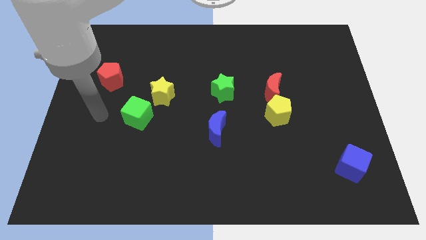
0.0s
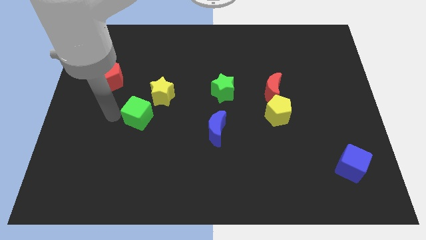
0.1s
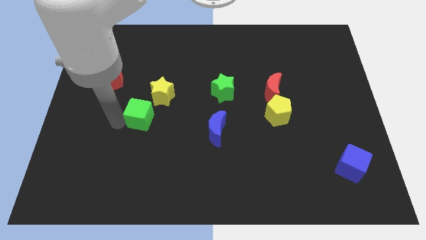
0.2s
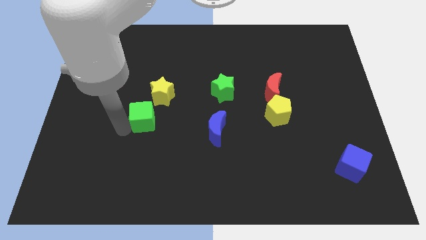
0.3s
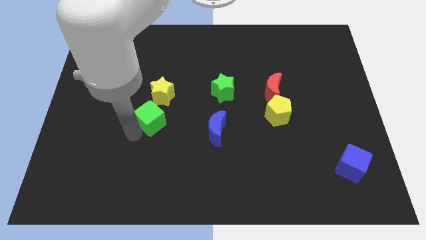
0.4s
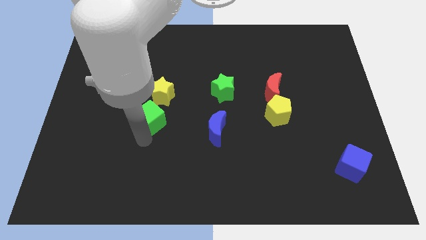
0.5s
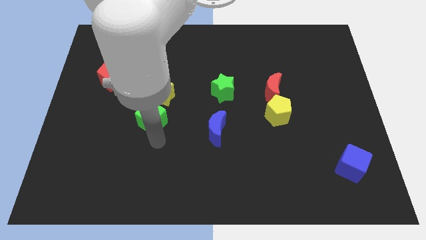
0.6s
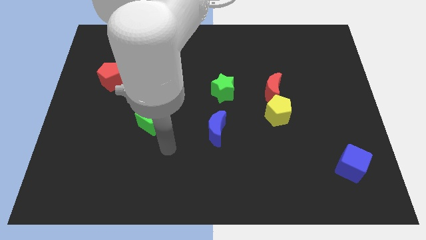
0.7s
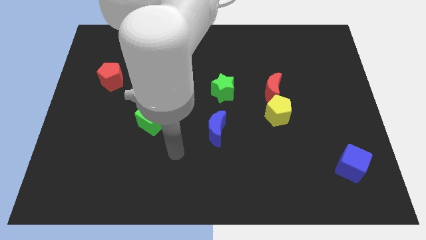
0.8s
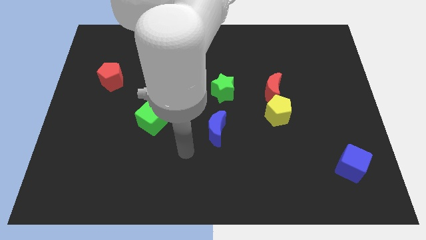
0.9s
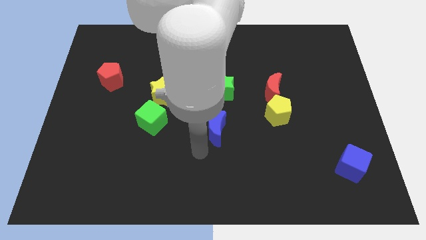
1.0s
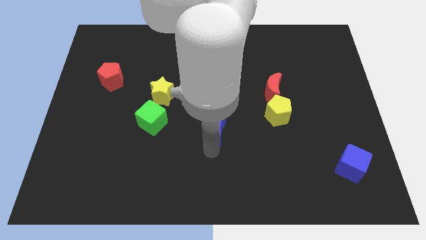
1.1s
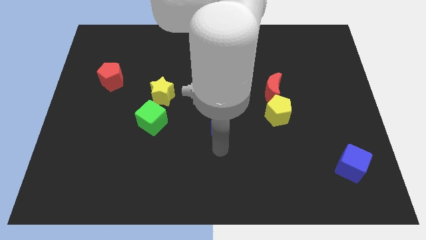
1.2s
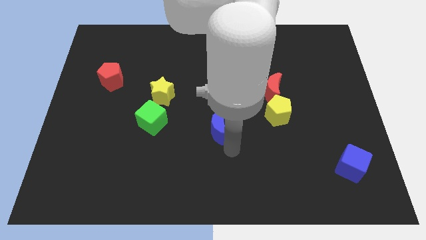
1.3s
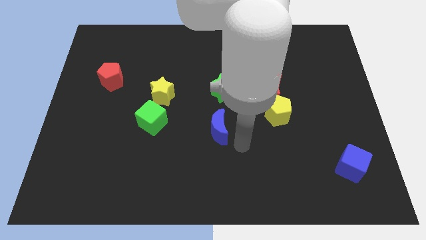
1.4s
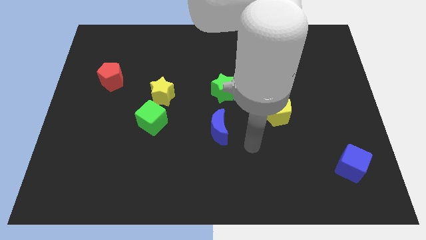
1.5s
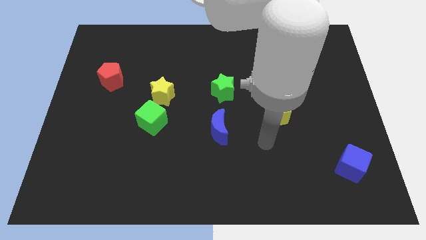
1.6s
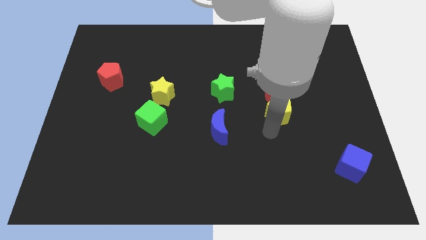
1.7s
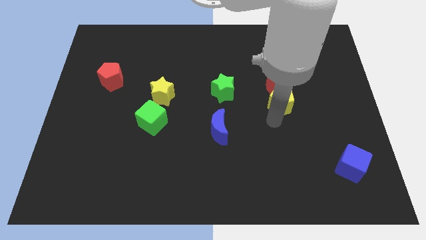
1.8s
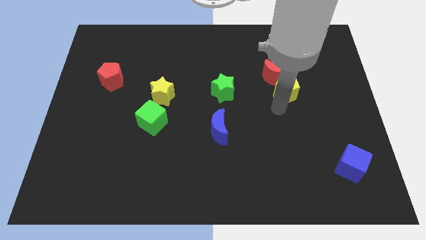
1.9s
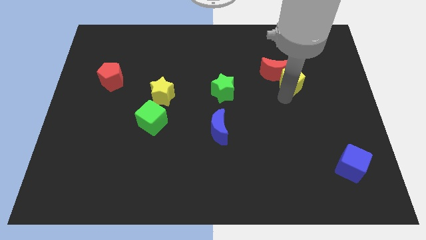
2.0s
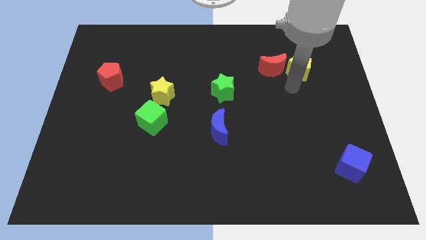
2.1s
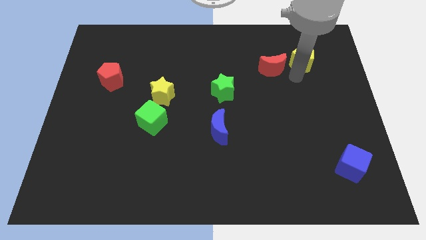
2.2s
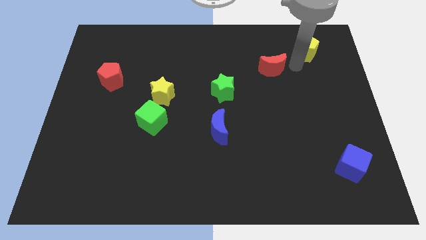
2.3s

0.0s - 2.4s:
move the red moon away from the yellow pentagon

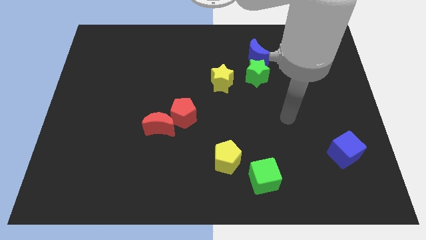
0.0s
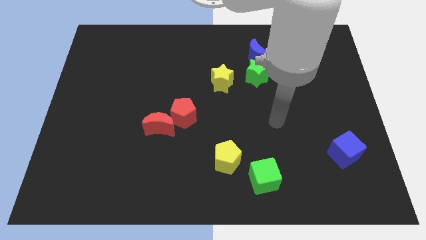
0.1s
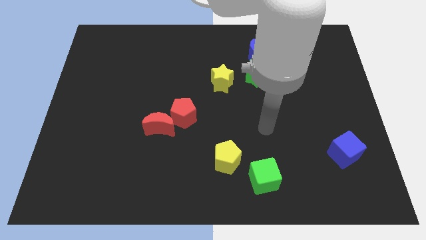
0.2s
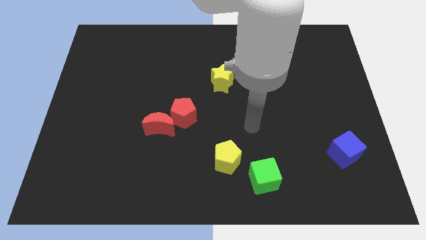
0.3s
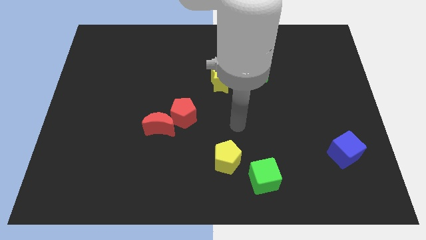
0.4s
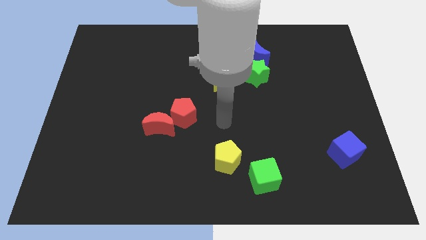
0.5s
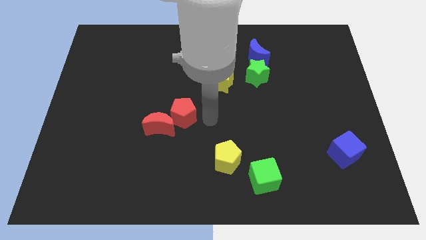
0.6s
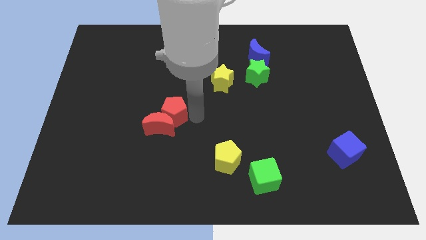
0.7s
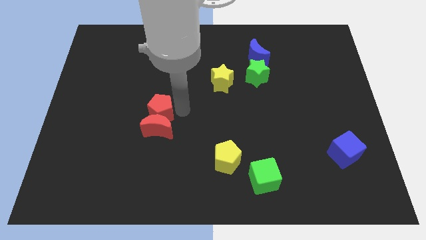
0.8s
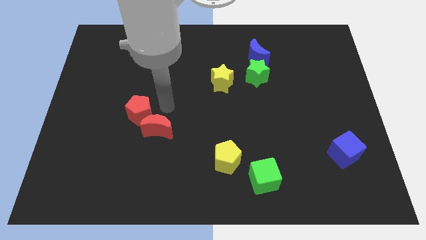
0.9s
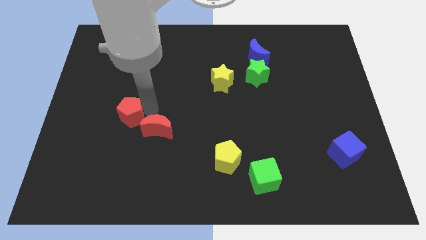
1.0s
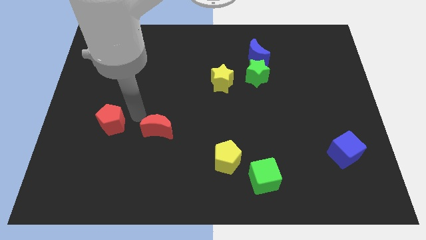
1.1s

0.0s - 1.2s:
move the red moon away from the red pentagon

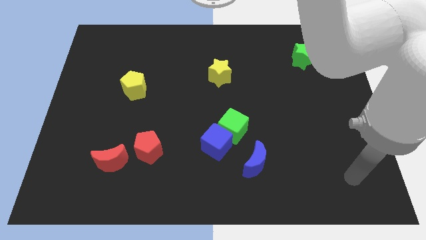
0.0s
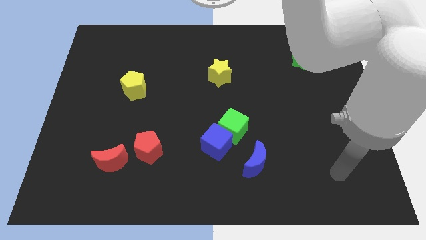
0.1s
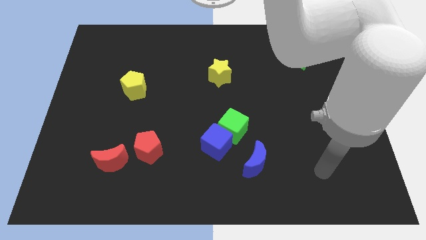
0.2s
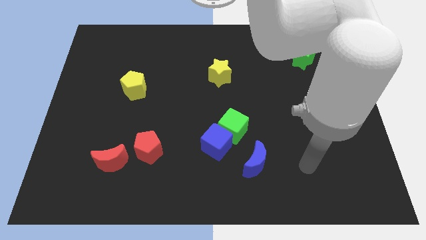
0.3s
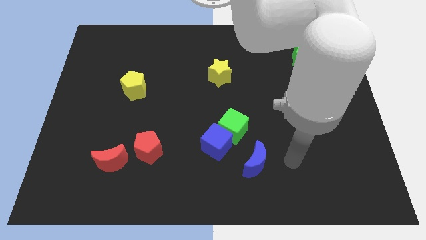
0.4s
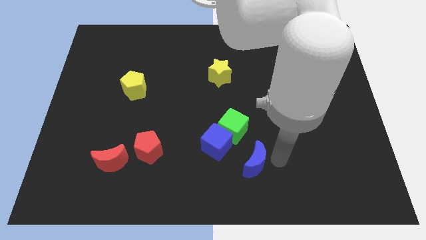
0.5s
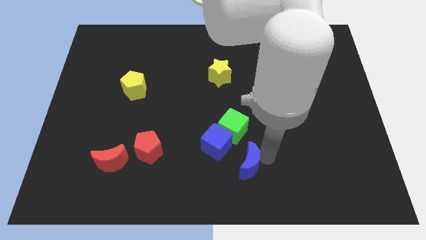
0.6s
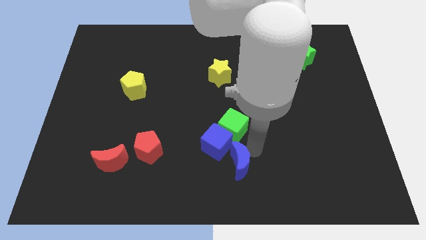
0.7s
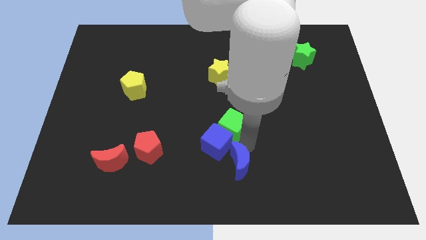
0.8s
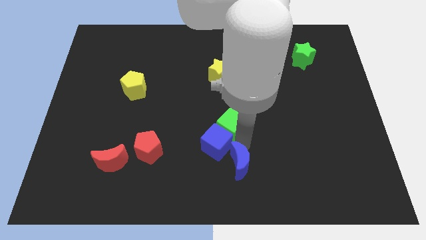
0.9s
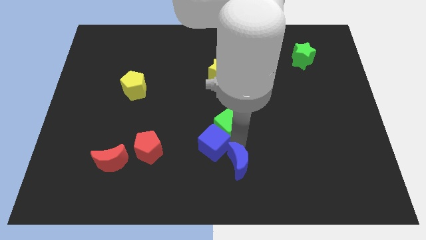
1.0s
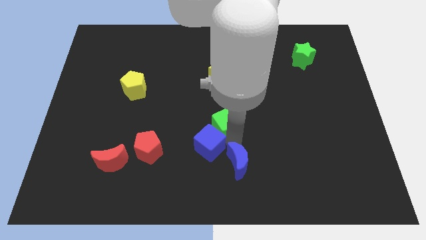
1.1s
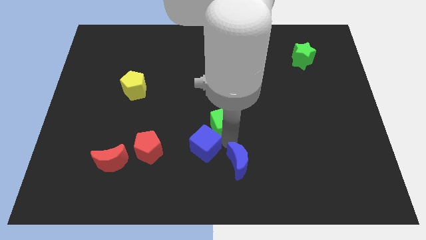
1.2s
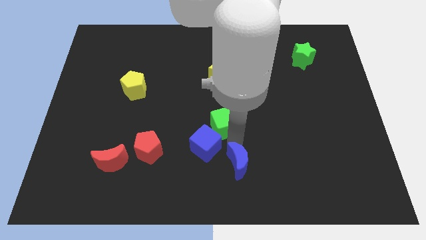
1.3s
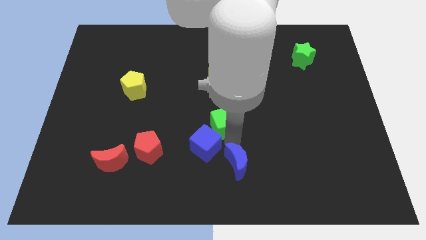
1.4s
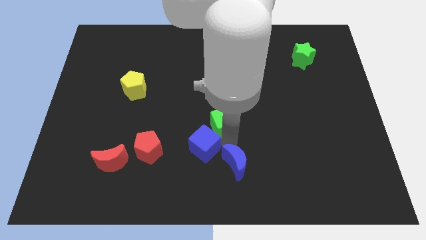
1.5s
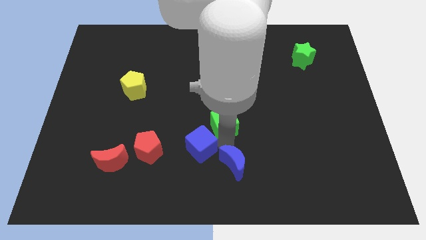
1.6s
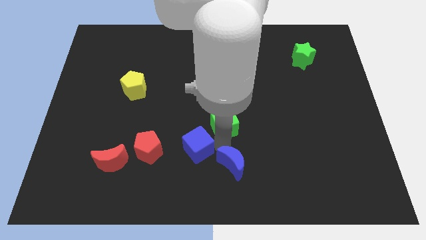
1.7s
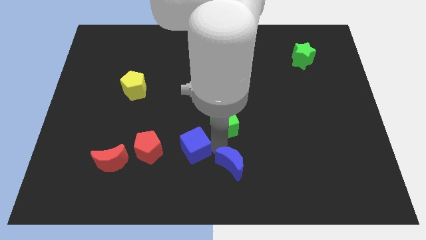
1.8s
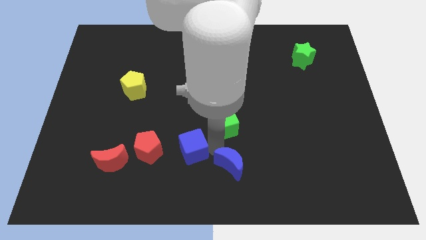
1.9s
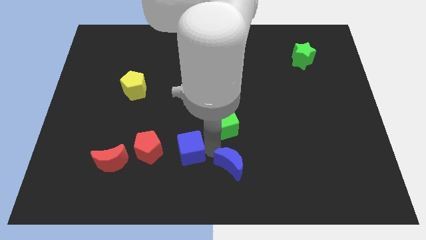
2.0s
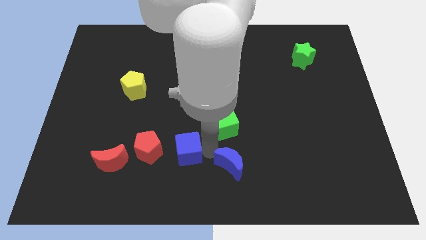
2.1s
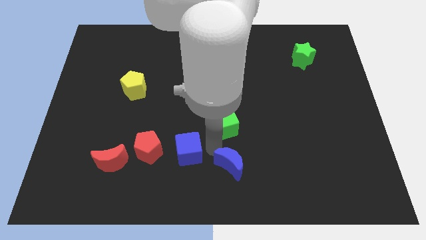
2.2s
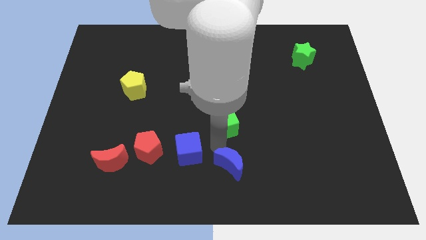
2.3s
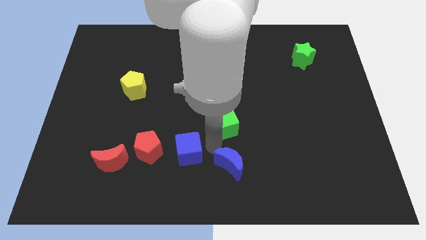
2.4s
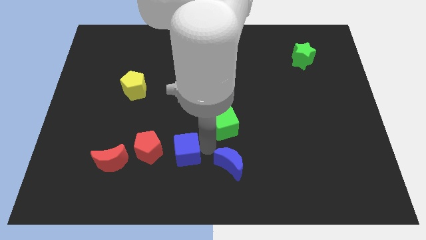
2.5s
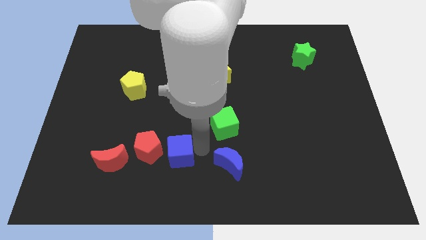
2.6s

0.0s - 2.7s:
move the blue cube away from the green cube and blue moon

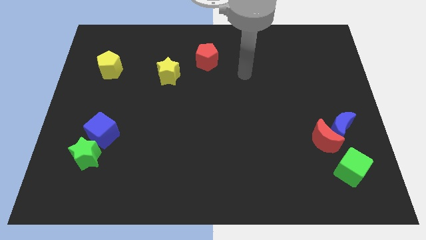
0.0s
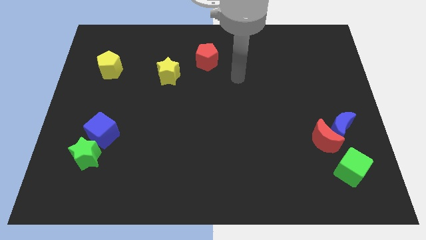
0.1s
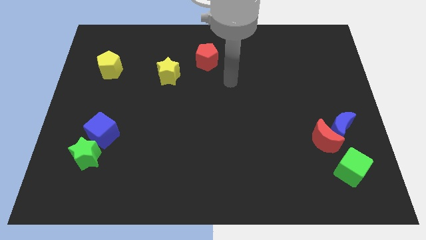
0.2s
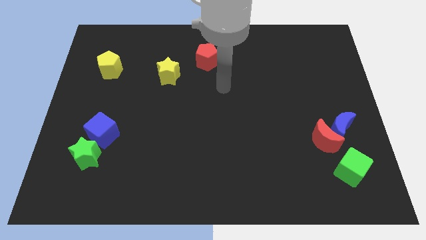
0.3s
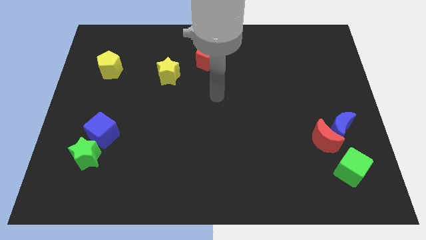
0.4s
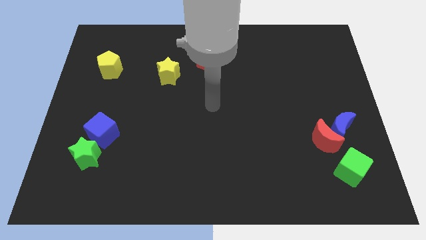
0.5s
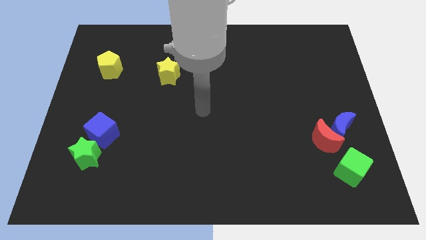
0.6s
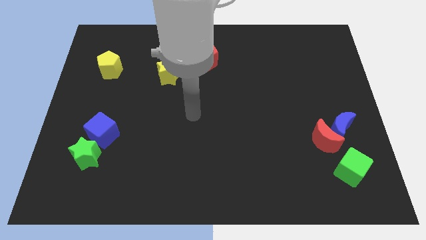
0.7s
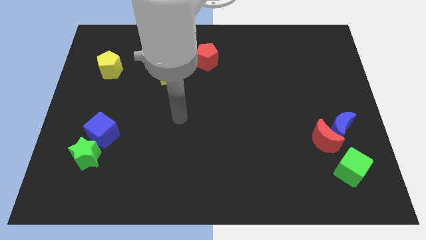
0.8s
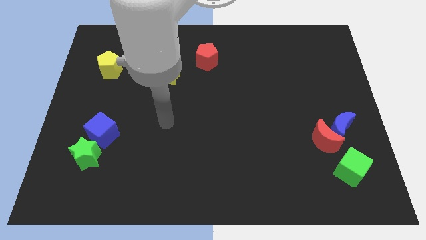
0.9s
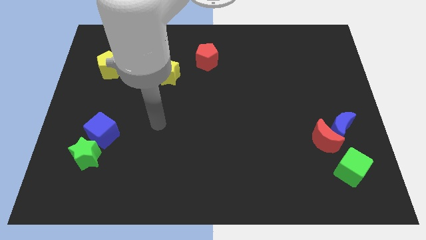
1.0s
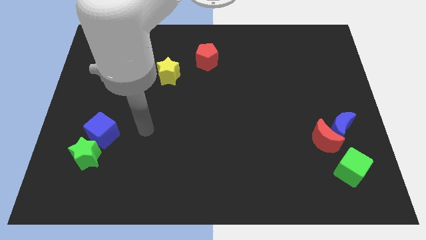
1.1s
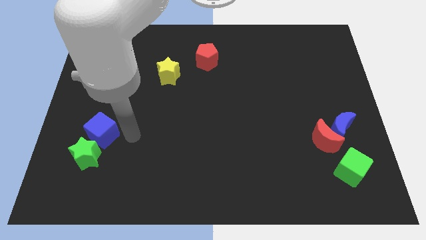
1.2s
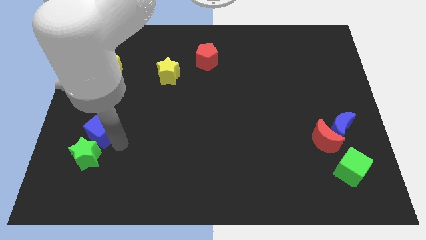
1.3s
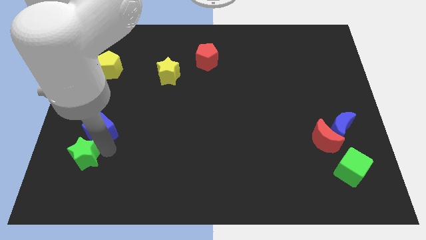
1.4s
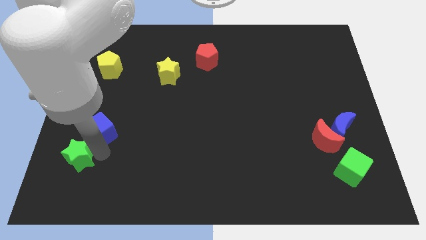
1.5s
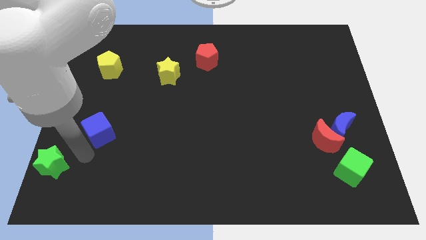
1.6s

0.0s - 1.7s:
pull the blue cube apart from the green star

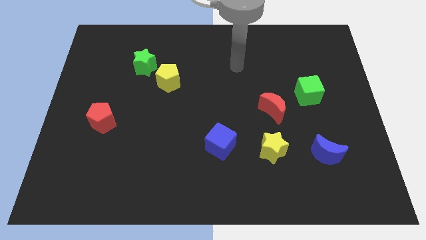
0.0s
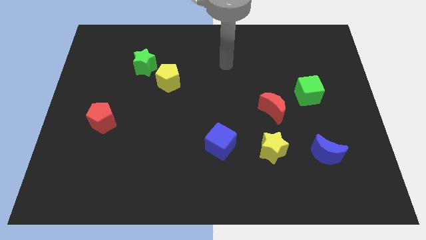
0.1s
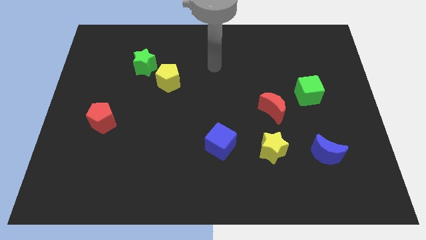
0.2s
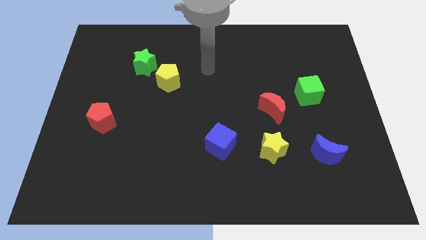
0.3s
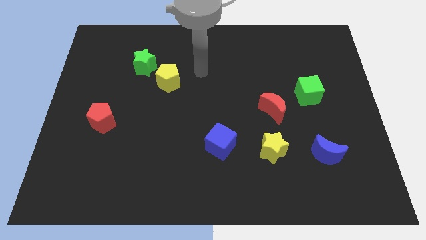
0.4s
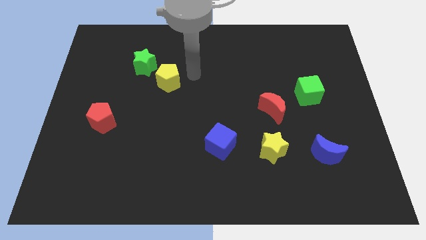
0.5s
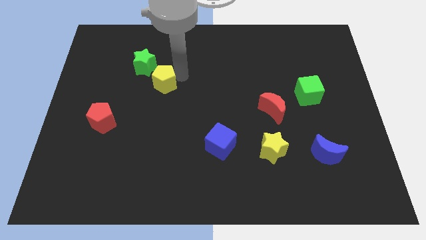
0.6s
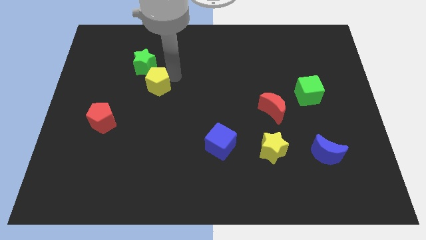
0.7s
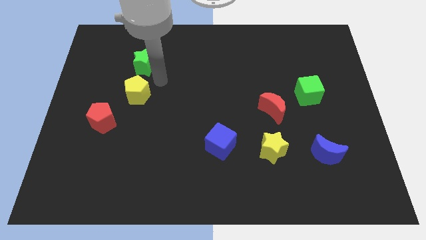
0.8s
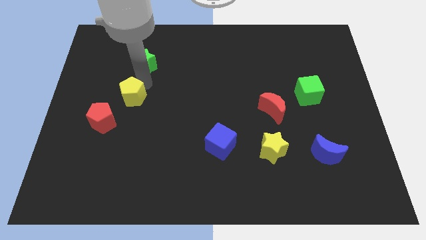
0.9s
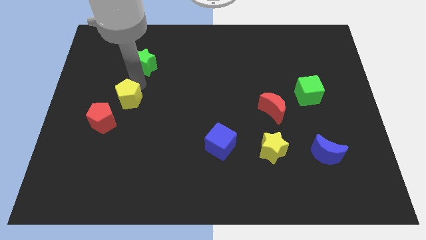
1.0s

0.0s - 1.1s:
move the green star away from the yellow pentagon

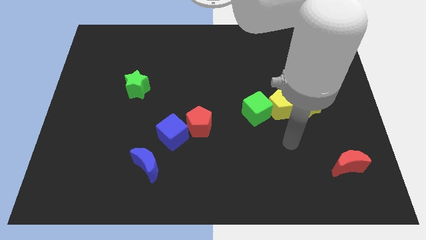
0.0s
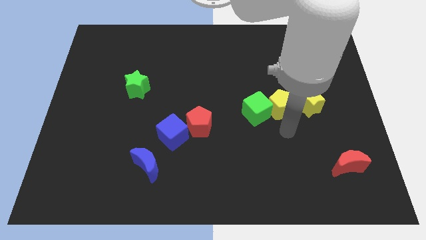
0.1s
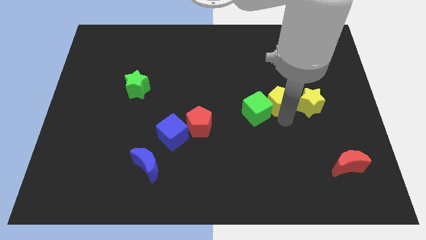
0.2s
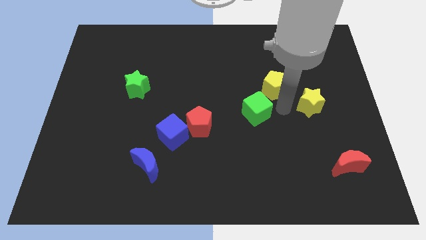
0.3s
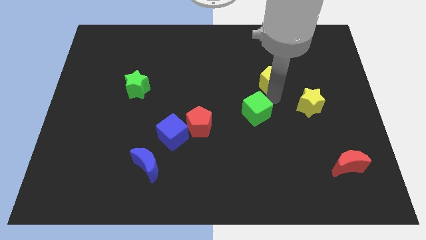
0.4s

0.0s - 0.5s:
move the green cube away from the yellow pentagon
